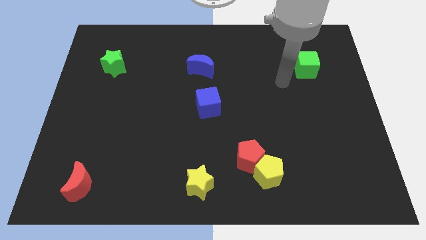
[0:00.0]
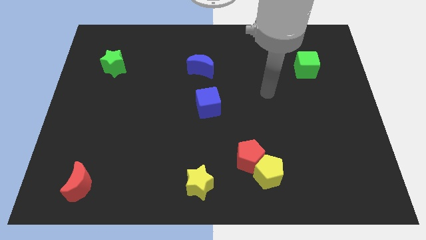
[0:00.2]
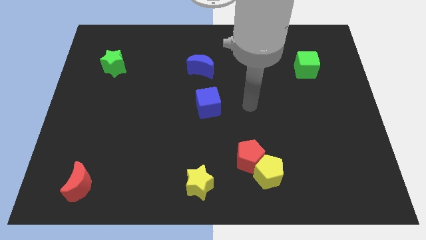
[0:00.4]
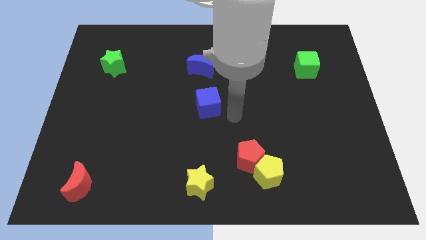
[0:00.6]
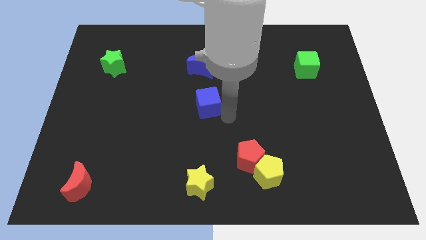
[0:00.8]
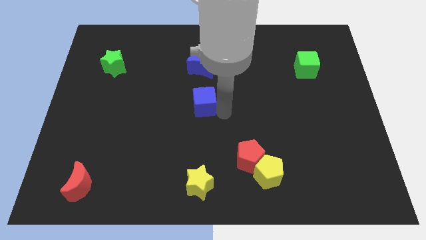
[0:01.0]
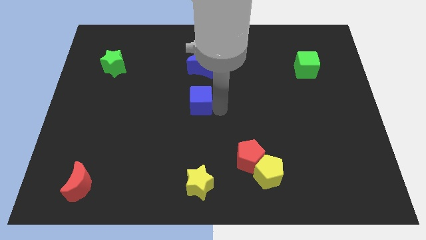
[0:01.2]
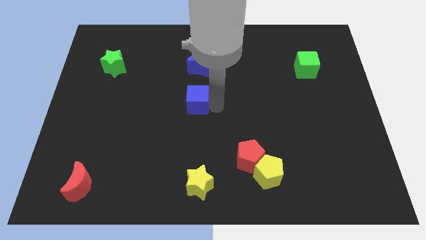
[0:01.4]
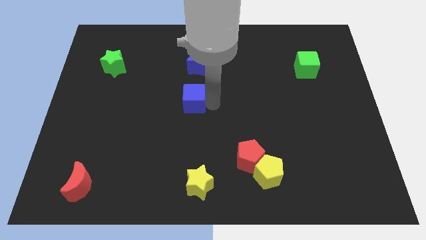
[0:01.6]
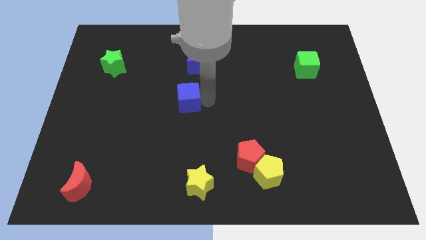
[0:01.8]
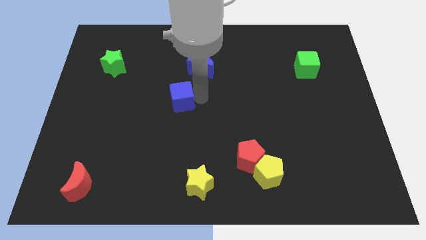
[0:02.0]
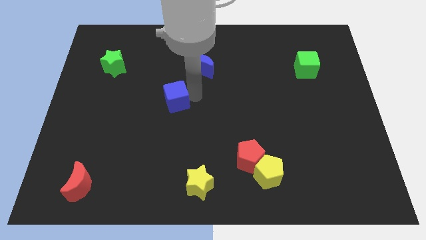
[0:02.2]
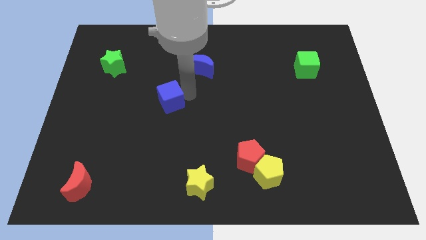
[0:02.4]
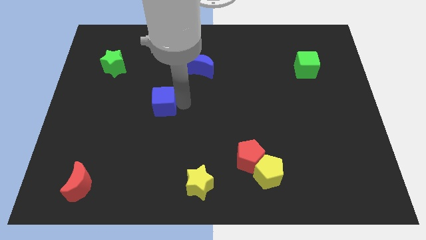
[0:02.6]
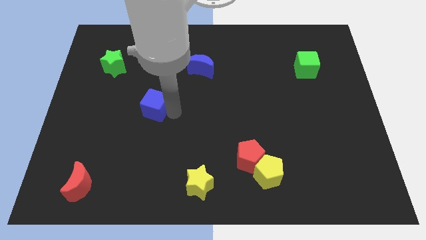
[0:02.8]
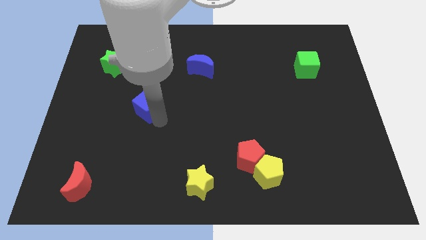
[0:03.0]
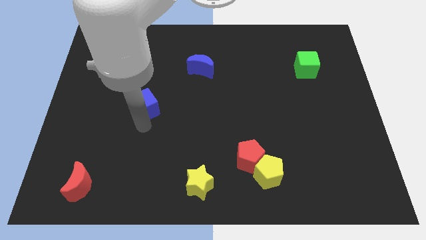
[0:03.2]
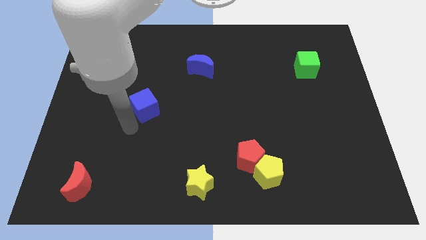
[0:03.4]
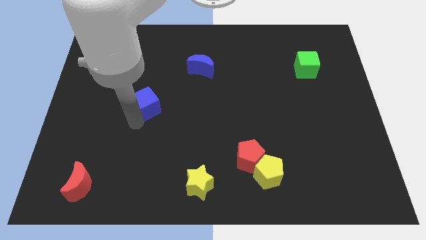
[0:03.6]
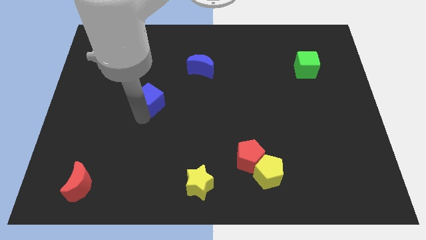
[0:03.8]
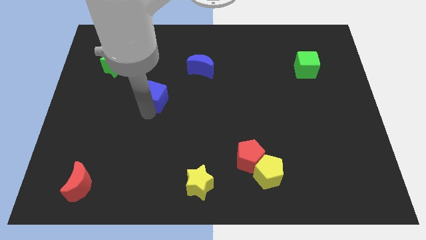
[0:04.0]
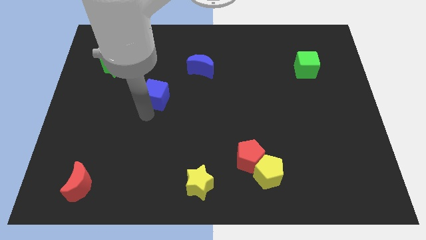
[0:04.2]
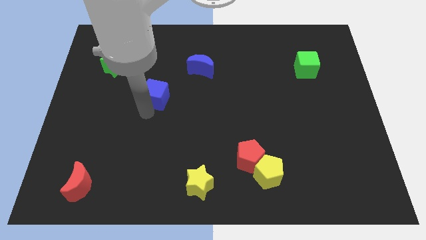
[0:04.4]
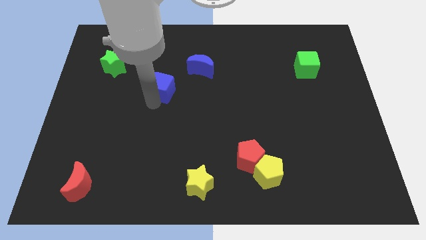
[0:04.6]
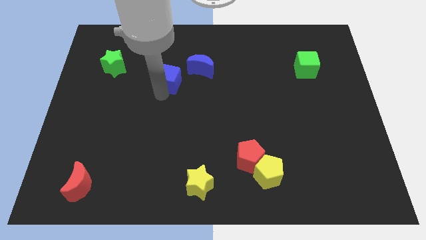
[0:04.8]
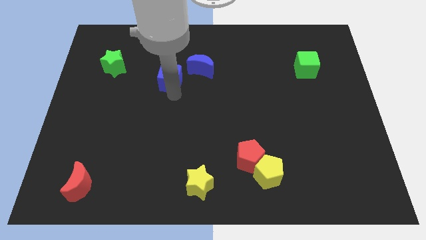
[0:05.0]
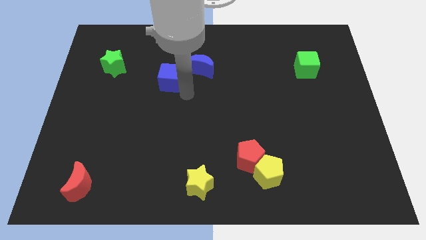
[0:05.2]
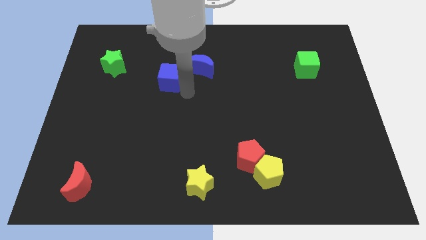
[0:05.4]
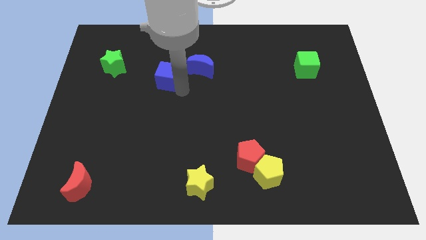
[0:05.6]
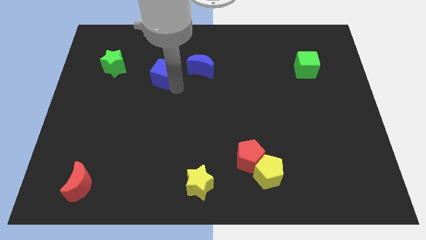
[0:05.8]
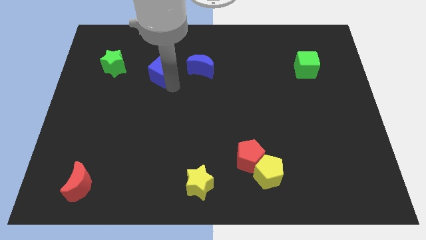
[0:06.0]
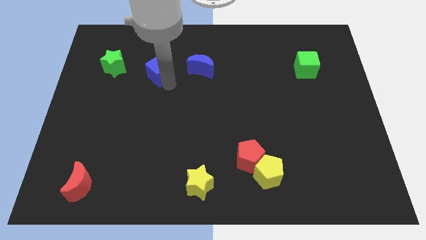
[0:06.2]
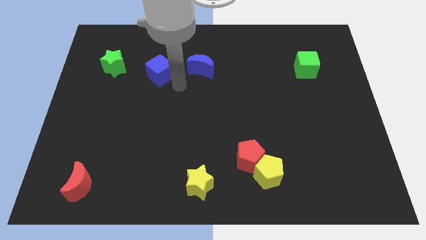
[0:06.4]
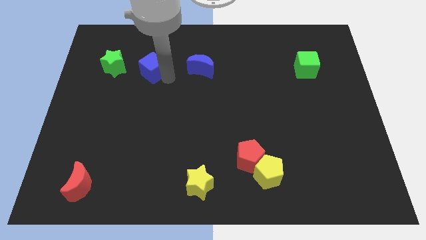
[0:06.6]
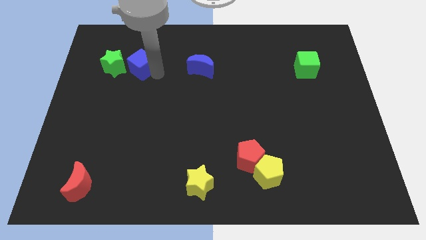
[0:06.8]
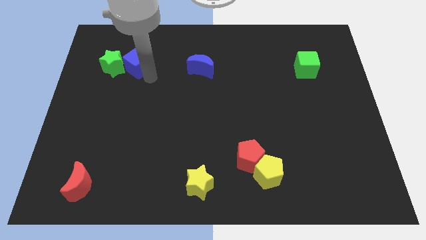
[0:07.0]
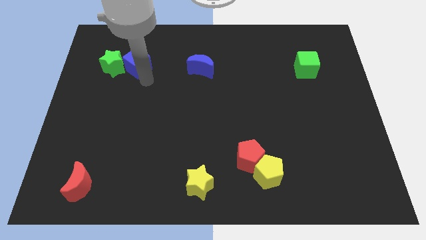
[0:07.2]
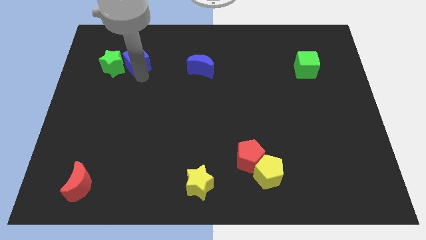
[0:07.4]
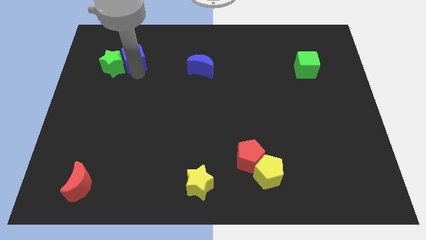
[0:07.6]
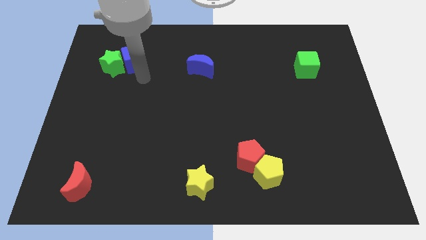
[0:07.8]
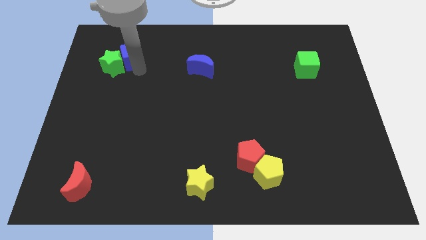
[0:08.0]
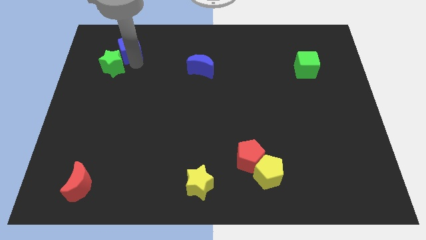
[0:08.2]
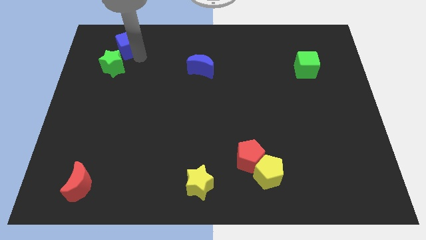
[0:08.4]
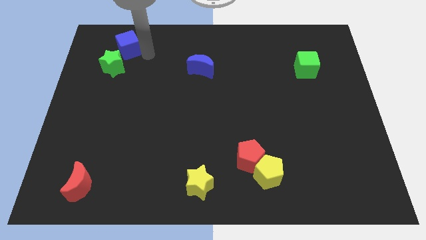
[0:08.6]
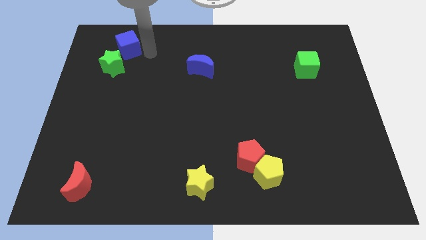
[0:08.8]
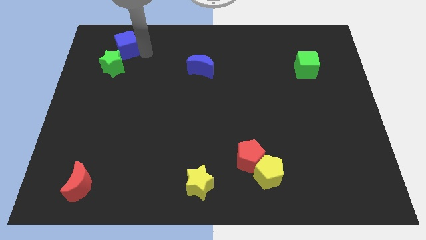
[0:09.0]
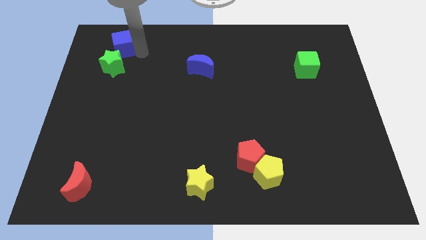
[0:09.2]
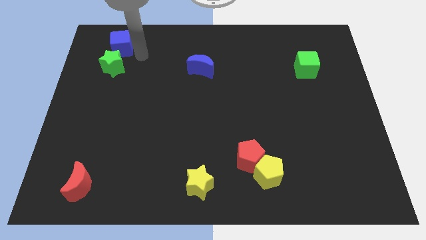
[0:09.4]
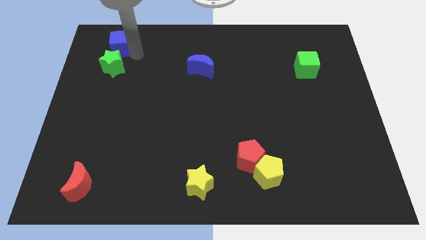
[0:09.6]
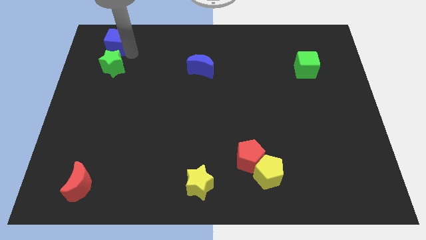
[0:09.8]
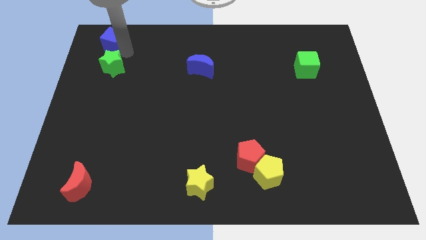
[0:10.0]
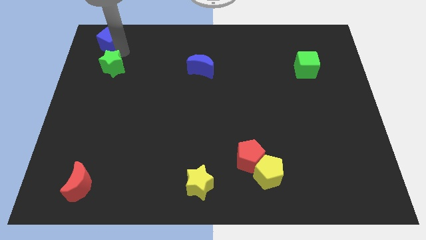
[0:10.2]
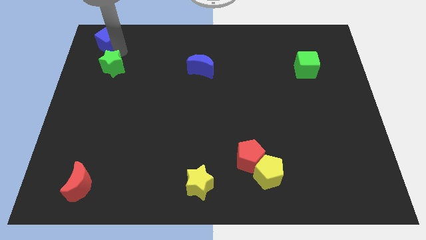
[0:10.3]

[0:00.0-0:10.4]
move the blue cube to the top left corner
